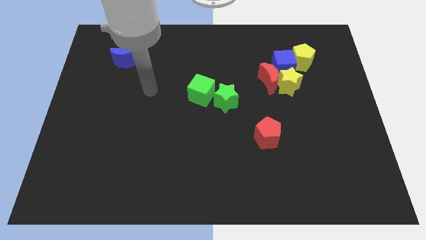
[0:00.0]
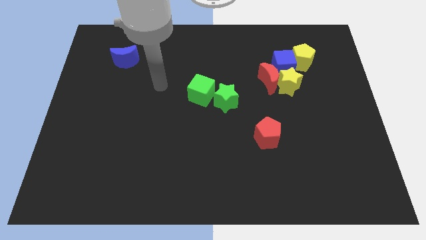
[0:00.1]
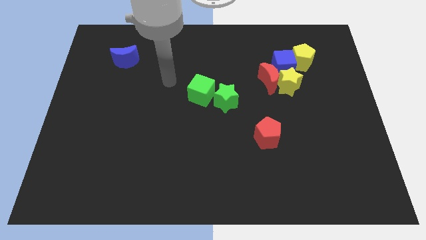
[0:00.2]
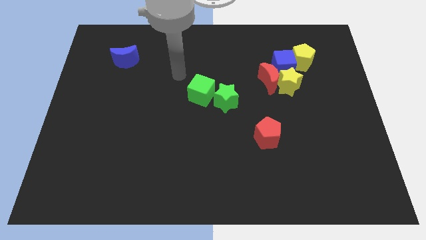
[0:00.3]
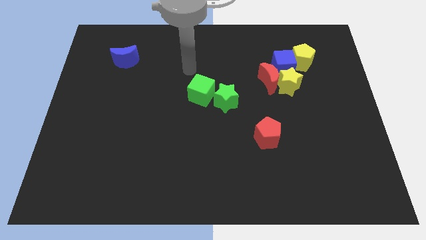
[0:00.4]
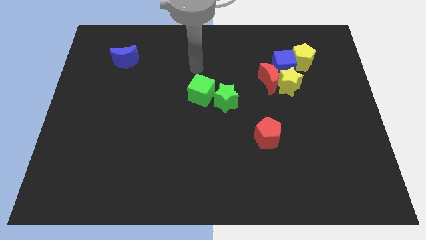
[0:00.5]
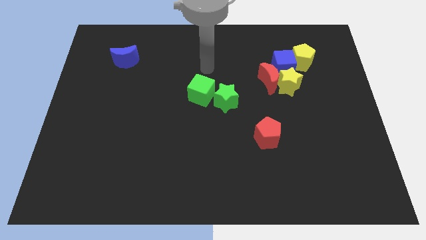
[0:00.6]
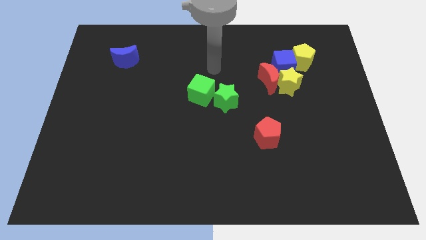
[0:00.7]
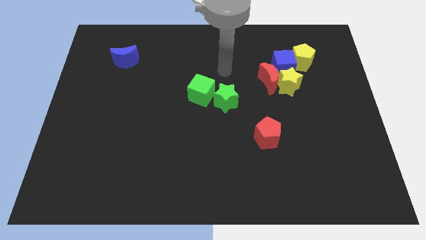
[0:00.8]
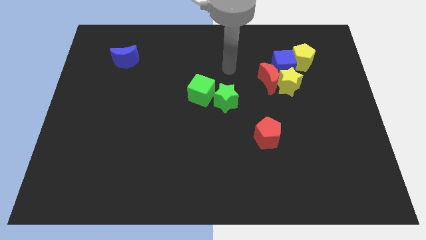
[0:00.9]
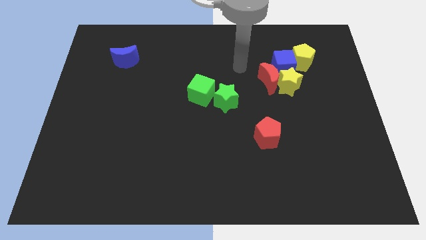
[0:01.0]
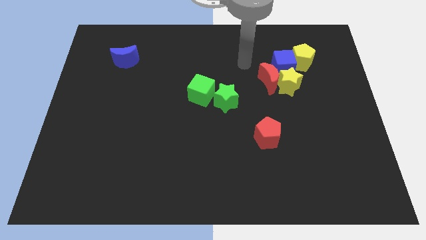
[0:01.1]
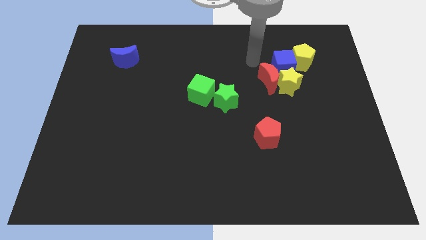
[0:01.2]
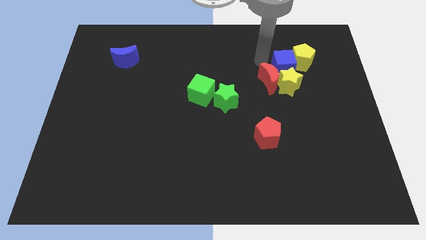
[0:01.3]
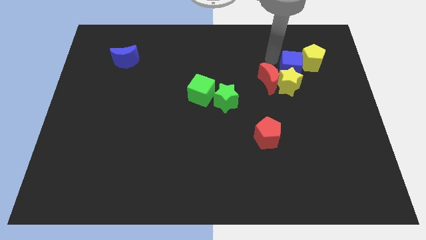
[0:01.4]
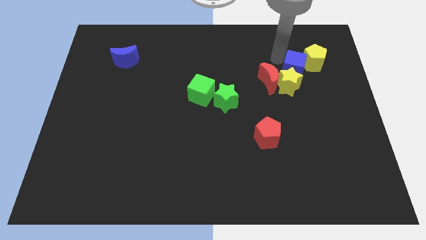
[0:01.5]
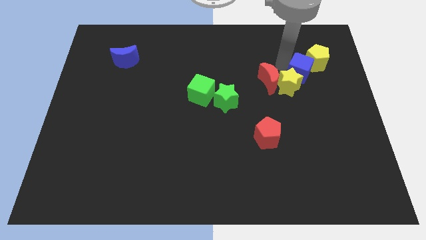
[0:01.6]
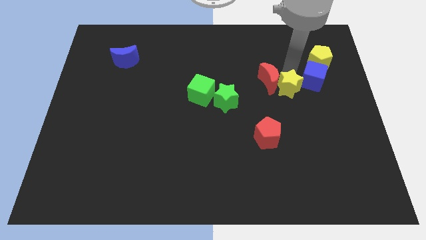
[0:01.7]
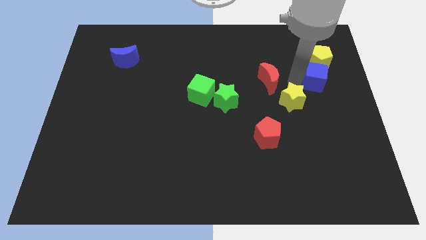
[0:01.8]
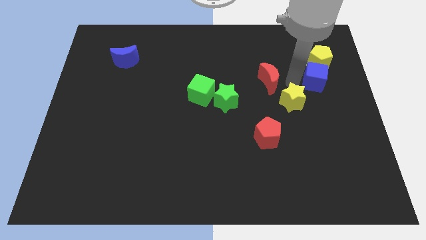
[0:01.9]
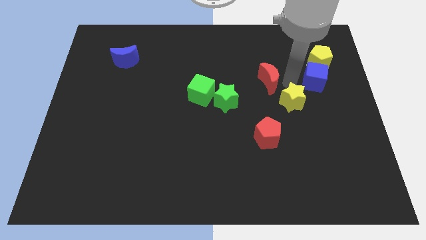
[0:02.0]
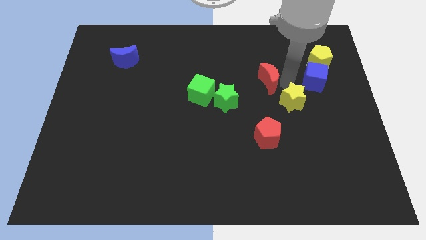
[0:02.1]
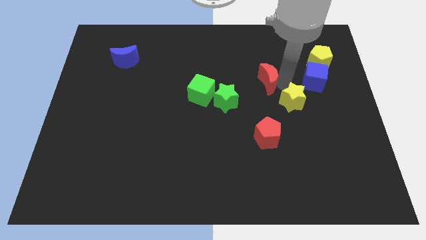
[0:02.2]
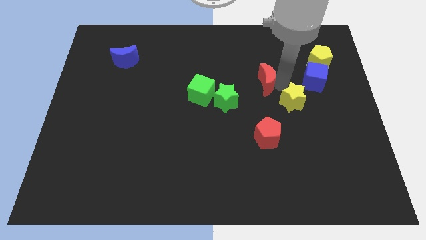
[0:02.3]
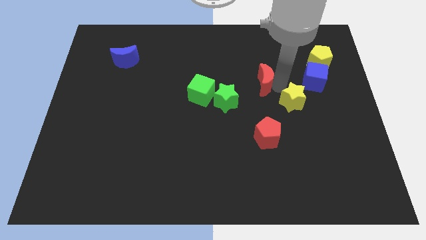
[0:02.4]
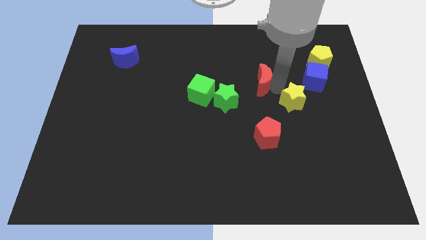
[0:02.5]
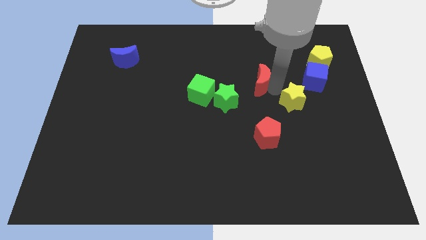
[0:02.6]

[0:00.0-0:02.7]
separate the red moon from the yellow star and blue cube

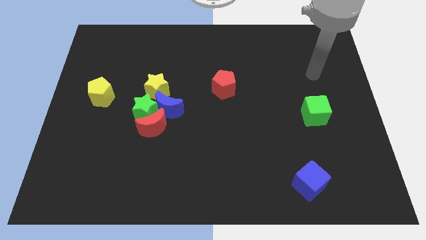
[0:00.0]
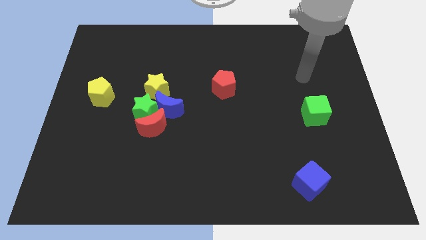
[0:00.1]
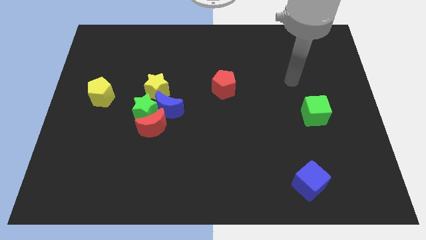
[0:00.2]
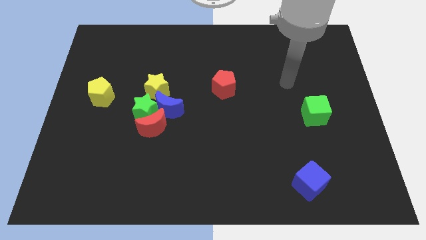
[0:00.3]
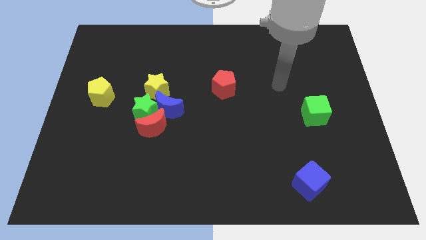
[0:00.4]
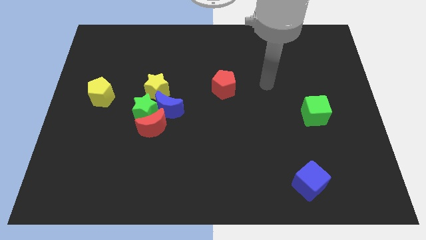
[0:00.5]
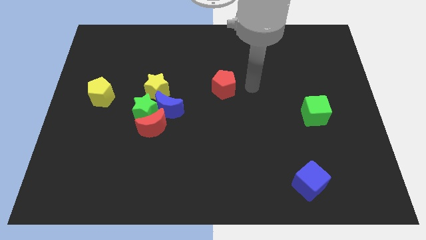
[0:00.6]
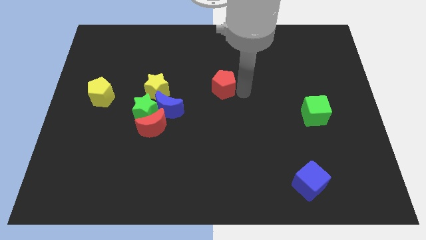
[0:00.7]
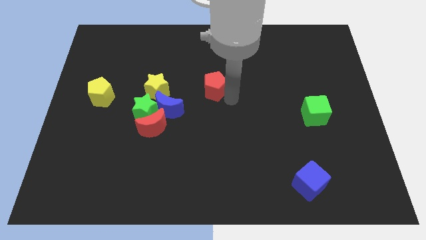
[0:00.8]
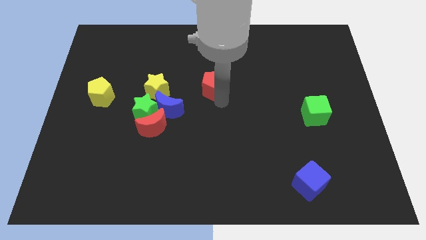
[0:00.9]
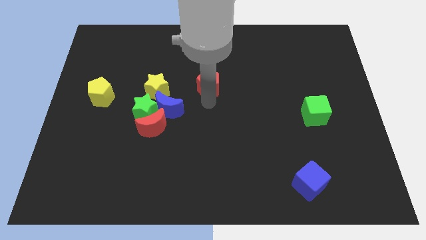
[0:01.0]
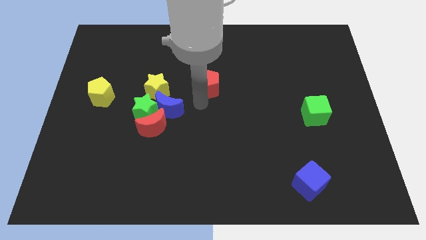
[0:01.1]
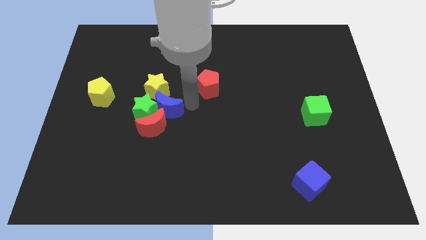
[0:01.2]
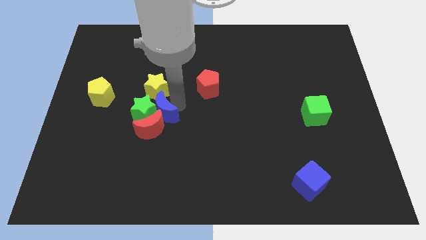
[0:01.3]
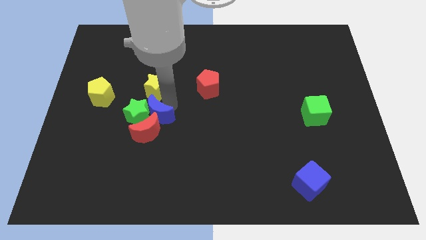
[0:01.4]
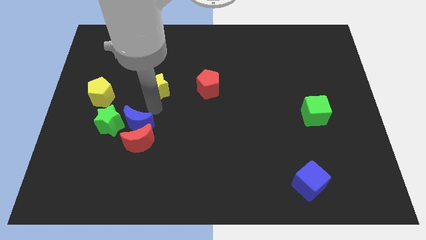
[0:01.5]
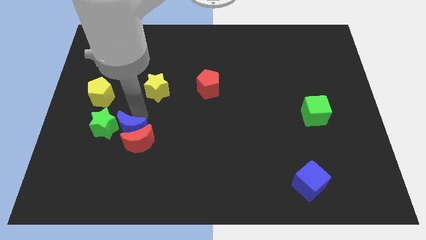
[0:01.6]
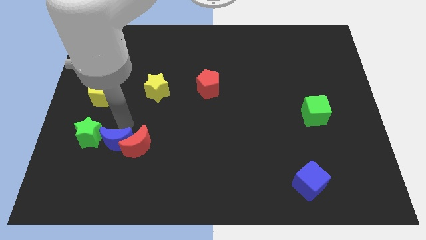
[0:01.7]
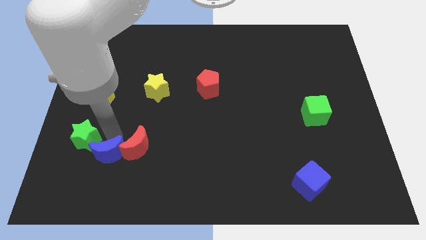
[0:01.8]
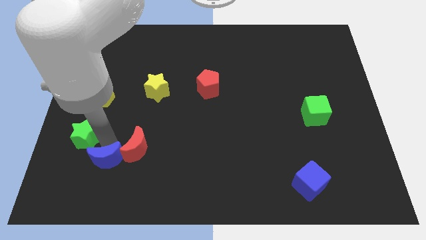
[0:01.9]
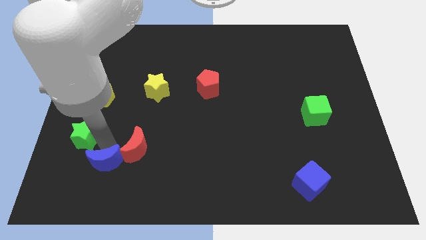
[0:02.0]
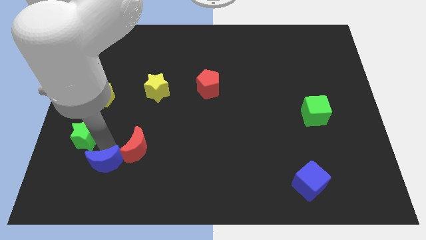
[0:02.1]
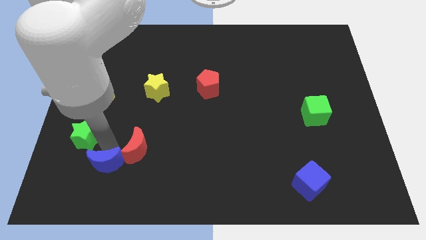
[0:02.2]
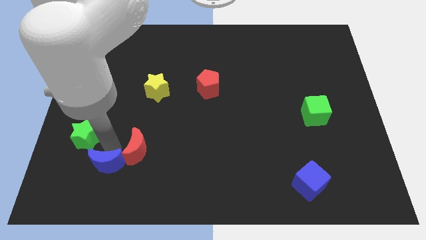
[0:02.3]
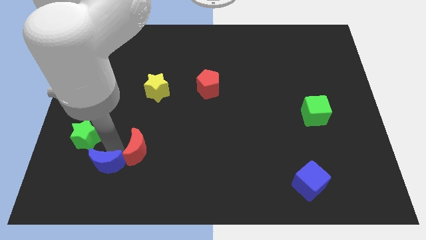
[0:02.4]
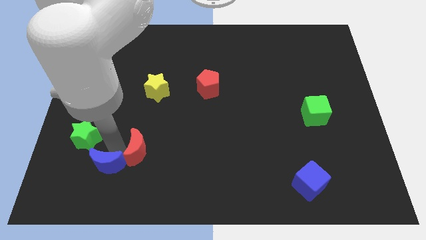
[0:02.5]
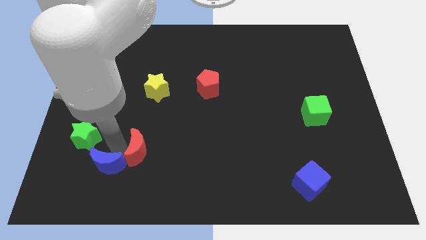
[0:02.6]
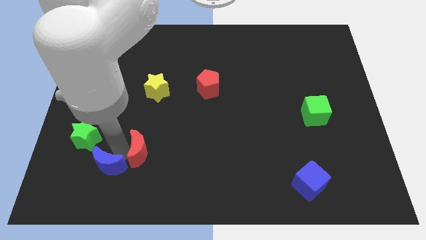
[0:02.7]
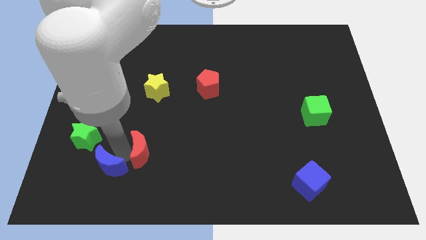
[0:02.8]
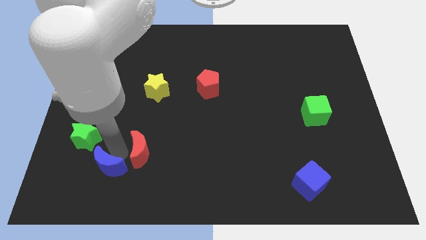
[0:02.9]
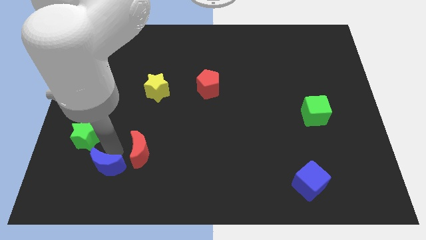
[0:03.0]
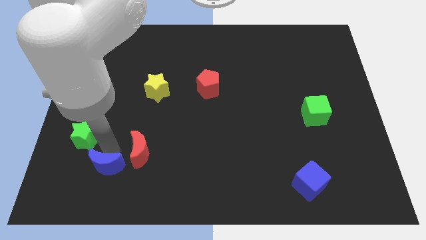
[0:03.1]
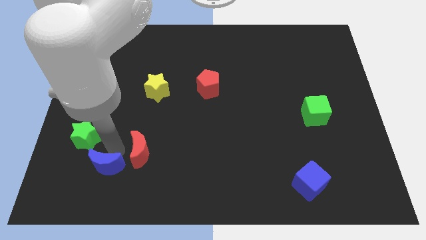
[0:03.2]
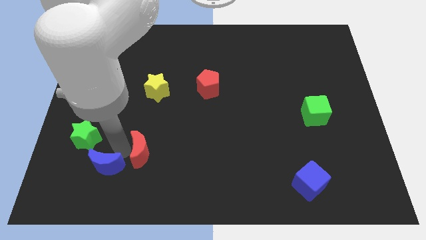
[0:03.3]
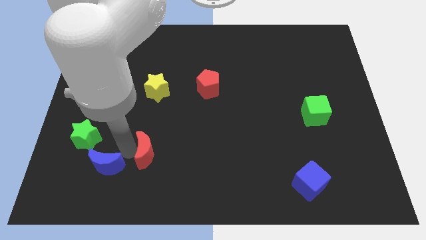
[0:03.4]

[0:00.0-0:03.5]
move the red moon away from the green star and blue moon

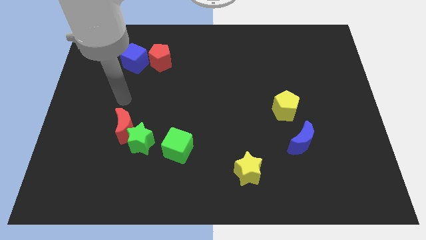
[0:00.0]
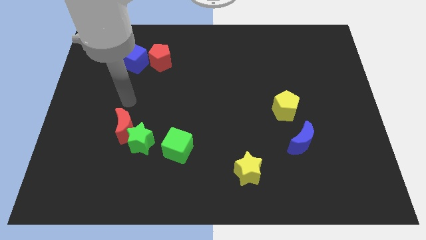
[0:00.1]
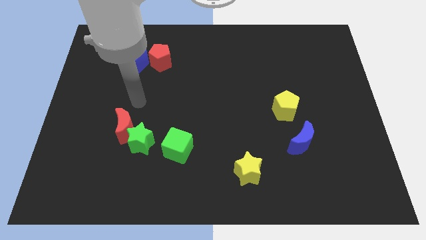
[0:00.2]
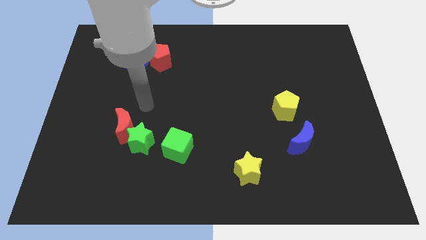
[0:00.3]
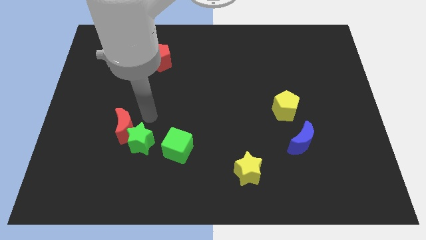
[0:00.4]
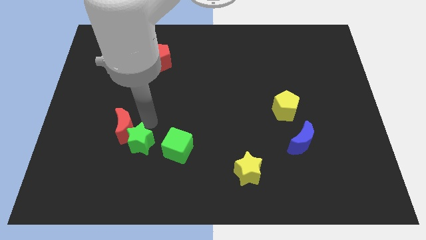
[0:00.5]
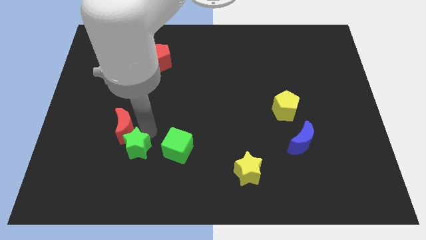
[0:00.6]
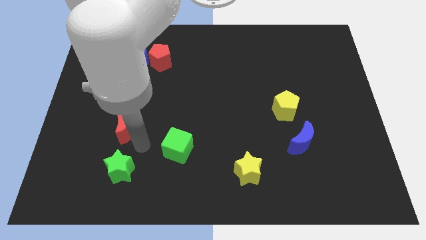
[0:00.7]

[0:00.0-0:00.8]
pull the red moon apart from the green star

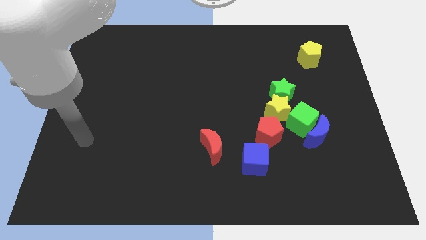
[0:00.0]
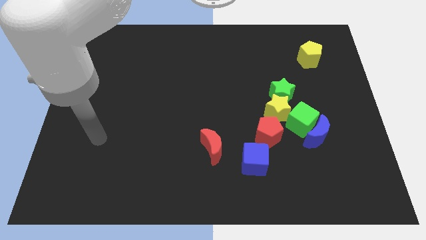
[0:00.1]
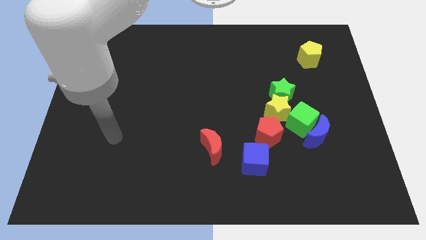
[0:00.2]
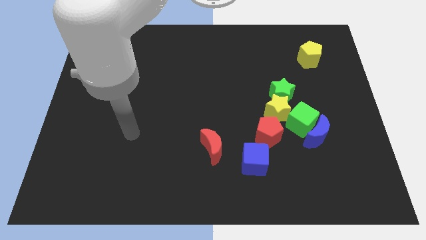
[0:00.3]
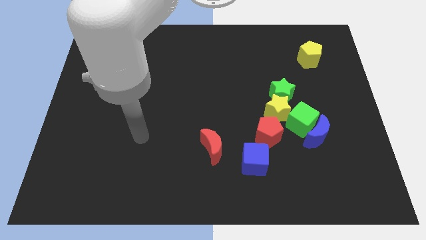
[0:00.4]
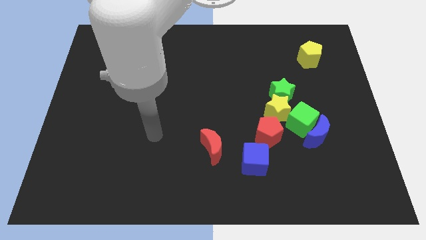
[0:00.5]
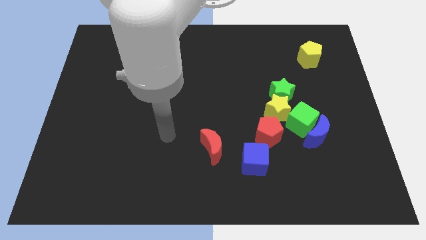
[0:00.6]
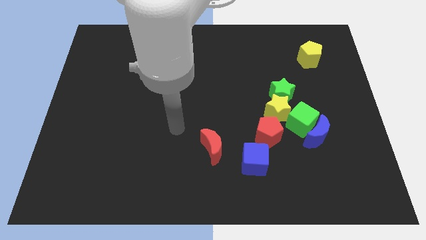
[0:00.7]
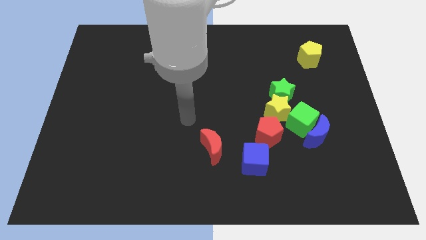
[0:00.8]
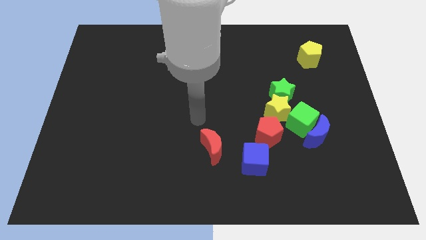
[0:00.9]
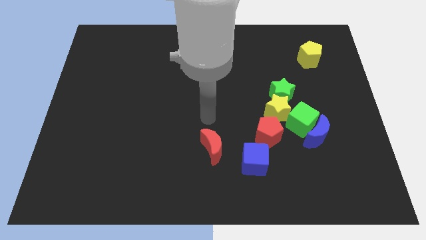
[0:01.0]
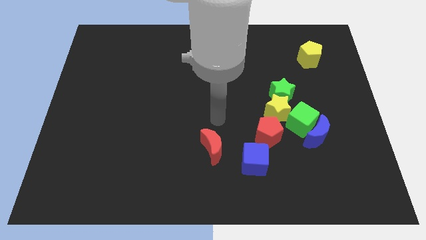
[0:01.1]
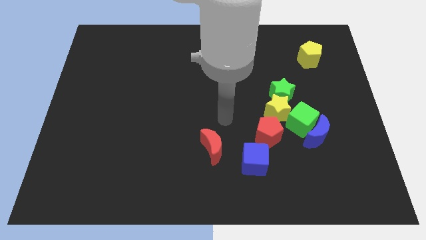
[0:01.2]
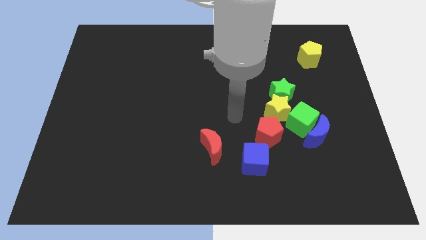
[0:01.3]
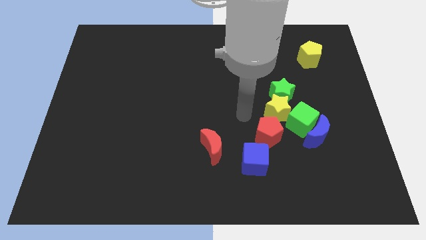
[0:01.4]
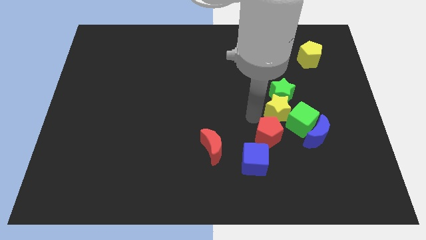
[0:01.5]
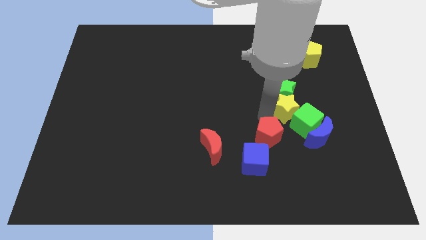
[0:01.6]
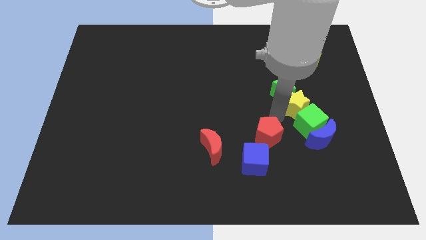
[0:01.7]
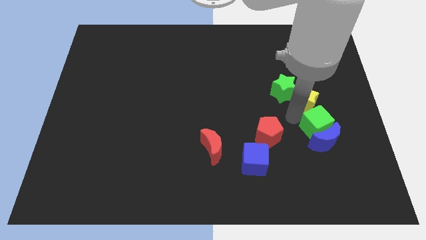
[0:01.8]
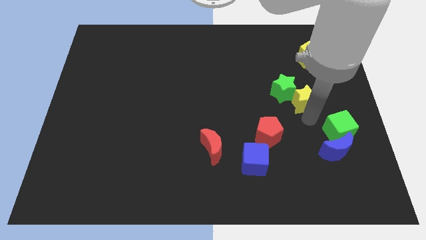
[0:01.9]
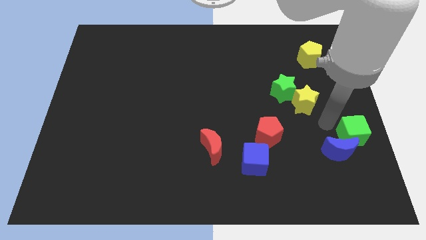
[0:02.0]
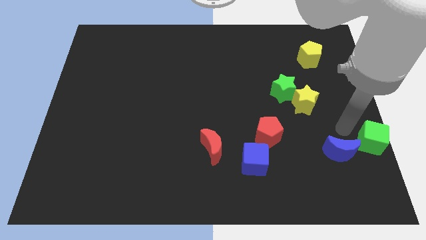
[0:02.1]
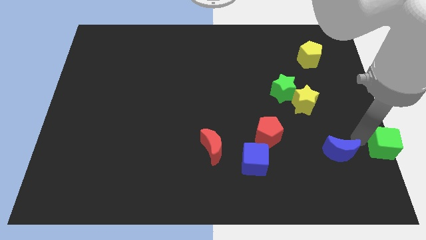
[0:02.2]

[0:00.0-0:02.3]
move the blue moon away from the green cube
